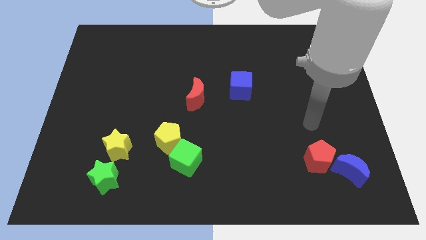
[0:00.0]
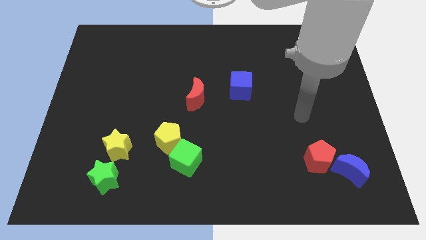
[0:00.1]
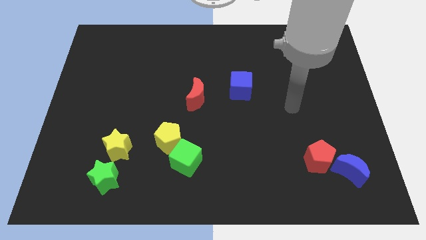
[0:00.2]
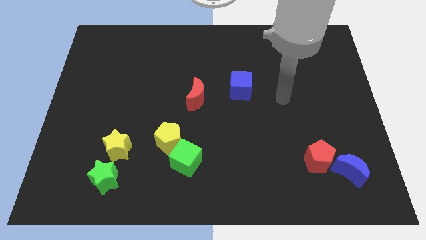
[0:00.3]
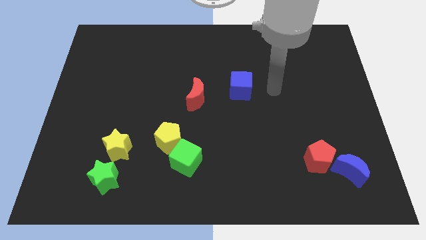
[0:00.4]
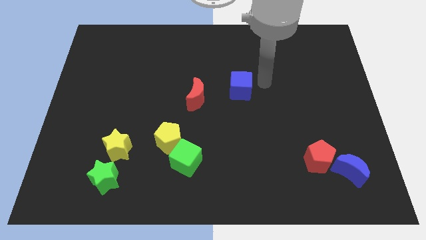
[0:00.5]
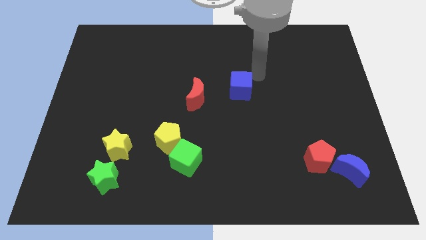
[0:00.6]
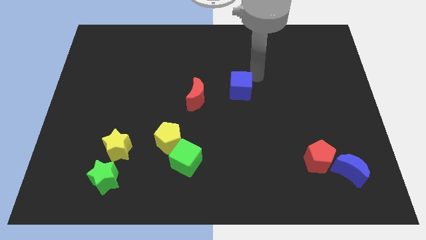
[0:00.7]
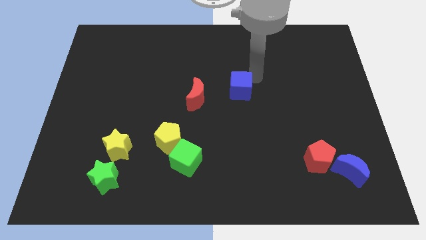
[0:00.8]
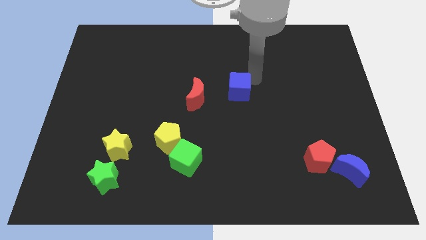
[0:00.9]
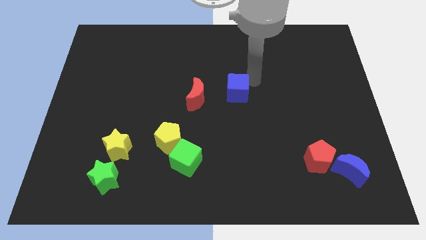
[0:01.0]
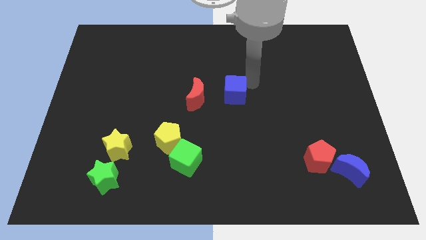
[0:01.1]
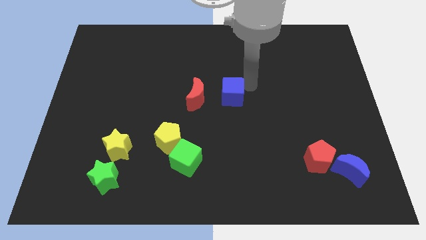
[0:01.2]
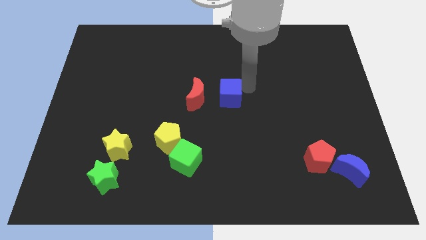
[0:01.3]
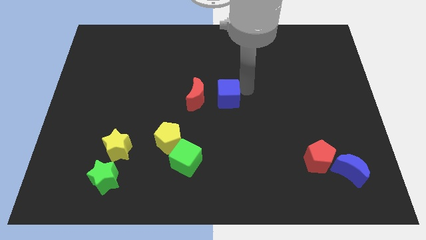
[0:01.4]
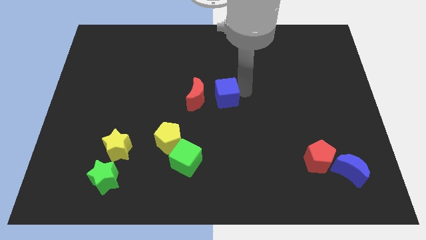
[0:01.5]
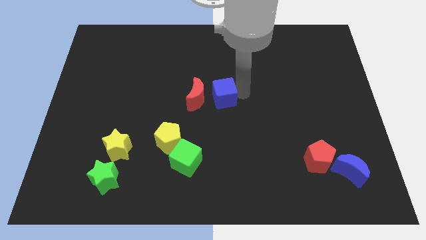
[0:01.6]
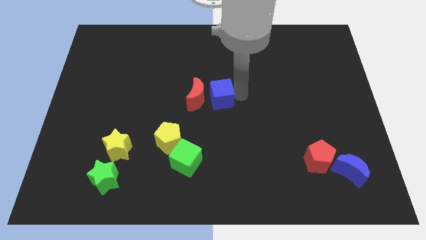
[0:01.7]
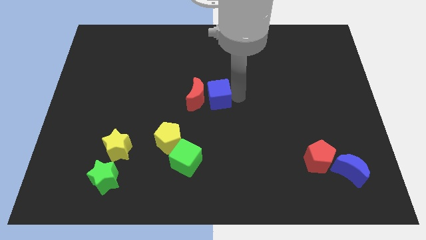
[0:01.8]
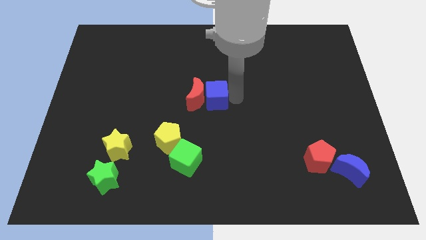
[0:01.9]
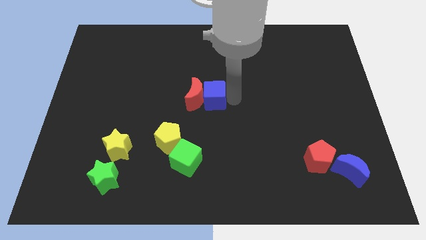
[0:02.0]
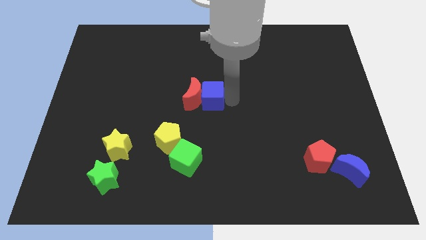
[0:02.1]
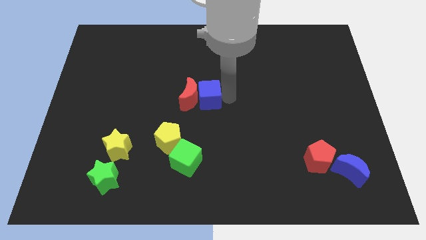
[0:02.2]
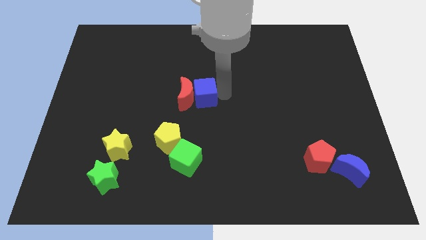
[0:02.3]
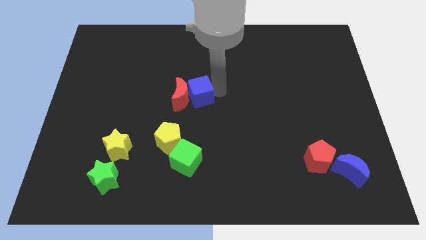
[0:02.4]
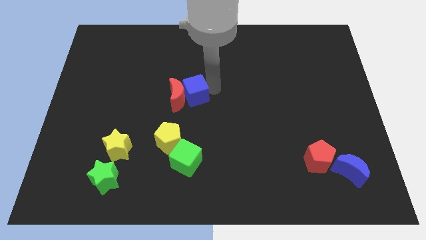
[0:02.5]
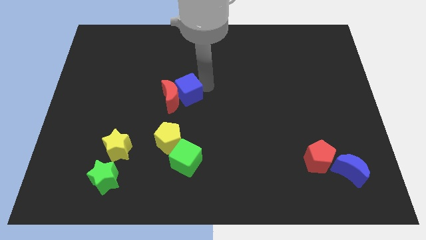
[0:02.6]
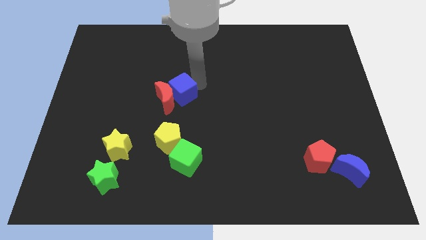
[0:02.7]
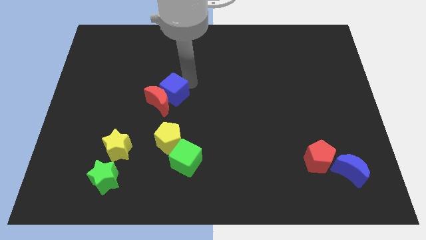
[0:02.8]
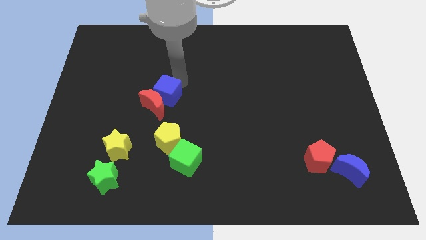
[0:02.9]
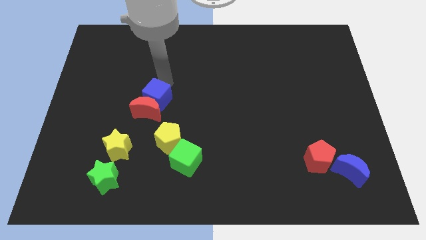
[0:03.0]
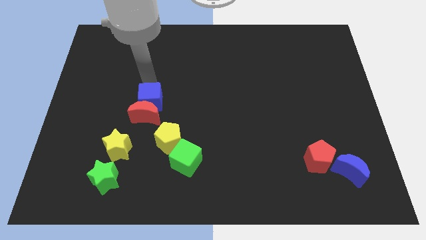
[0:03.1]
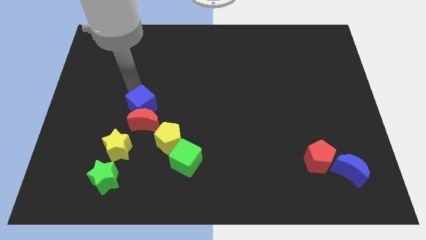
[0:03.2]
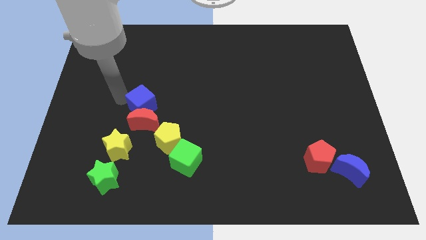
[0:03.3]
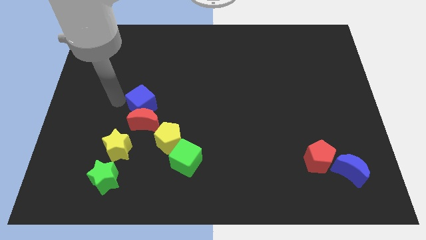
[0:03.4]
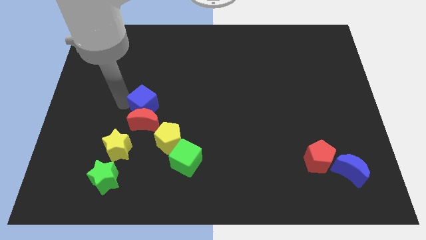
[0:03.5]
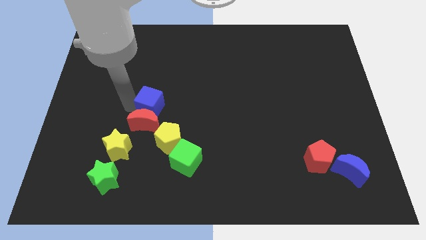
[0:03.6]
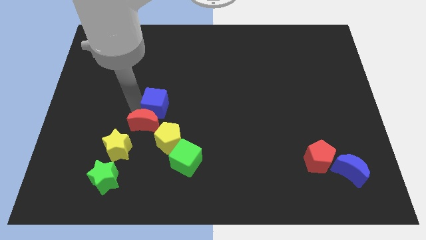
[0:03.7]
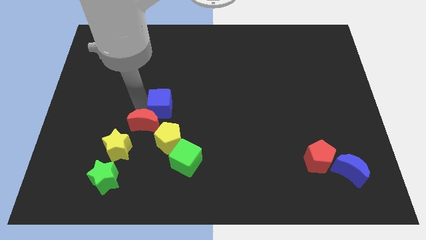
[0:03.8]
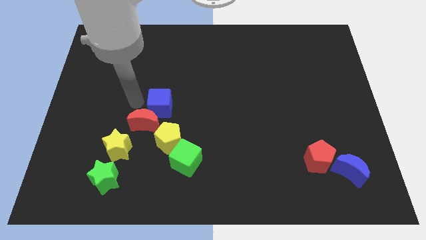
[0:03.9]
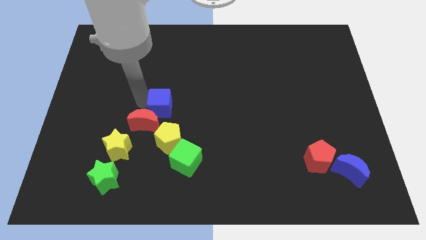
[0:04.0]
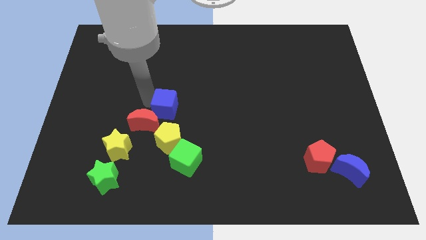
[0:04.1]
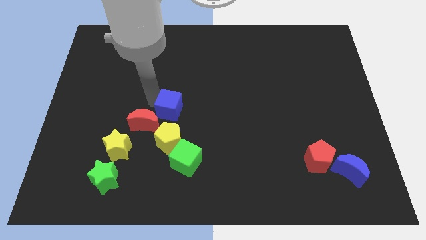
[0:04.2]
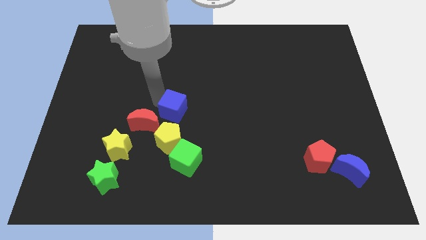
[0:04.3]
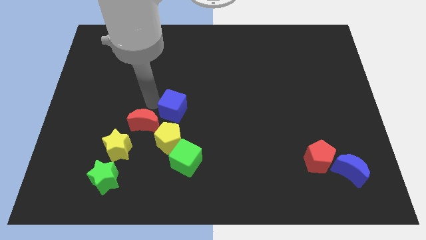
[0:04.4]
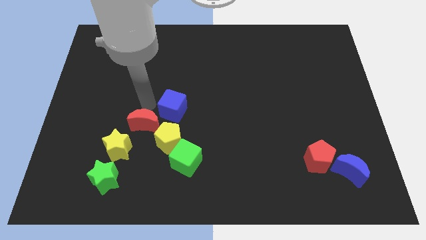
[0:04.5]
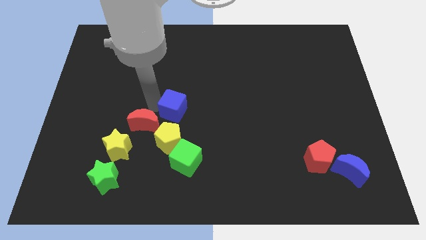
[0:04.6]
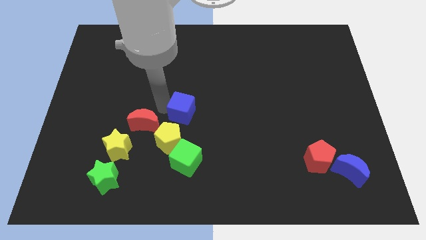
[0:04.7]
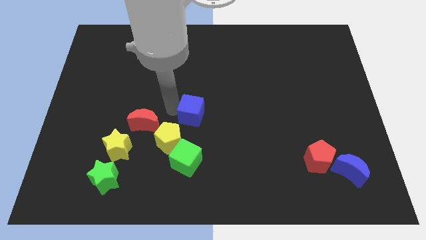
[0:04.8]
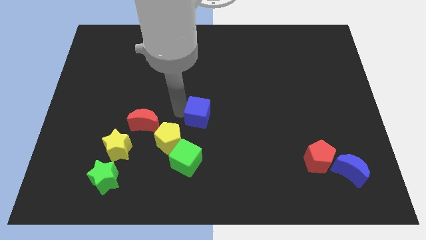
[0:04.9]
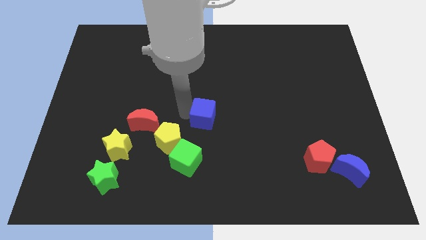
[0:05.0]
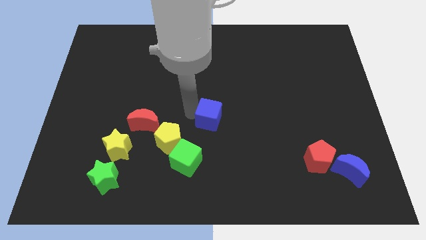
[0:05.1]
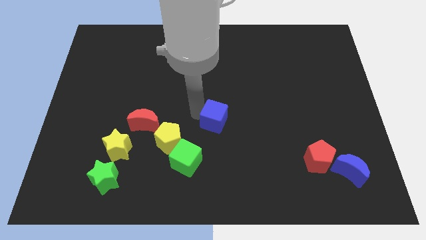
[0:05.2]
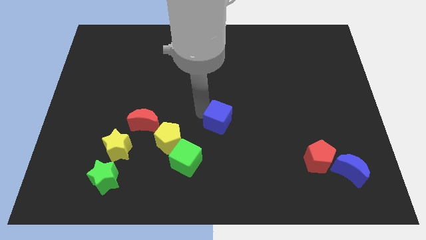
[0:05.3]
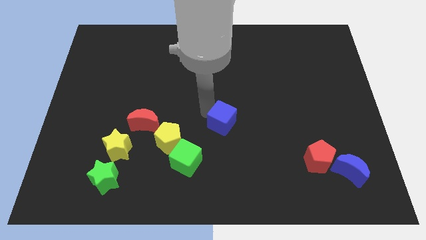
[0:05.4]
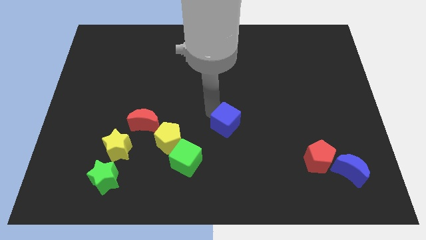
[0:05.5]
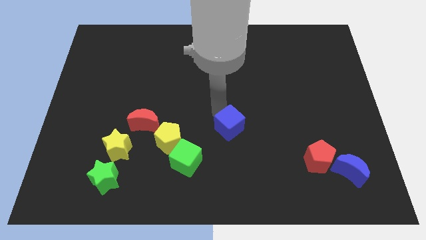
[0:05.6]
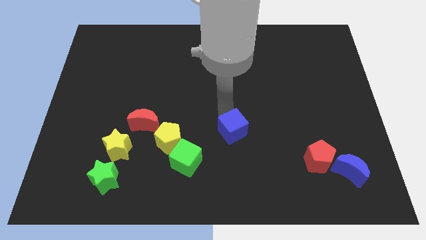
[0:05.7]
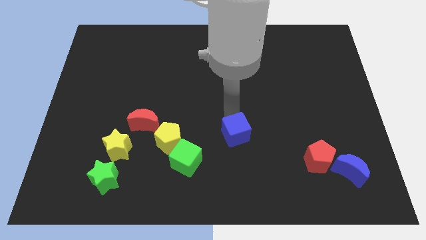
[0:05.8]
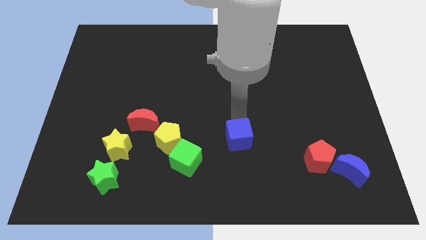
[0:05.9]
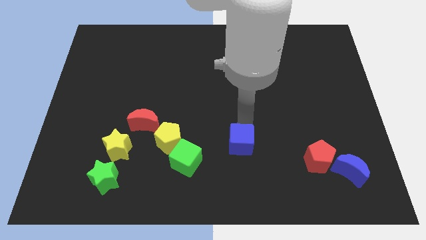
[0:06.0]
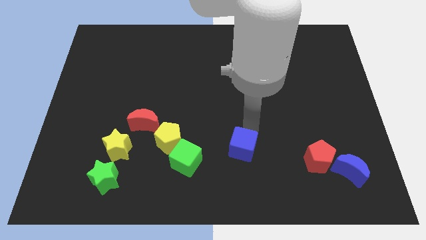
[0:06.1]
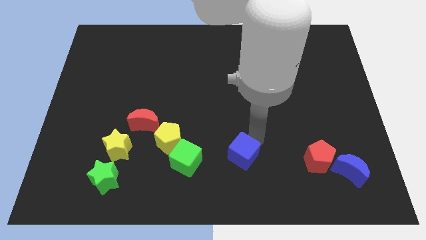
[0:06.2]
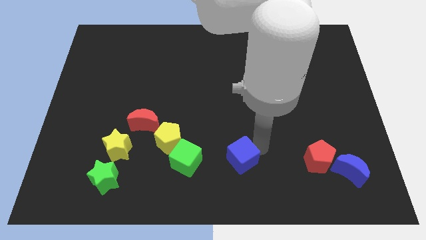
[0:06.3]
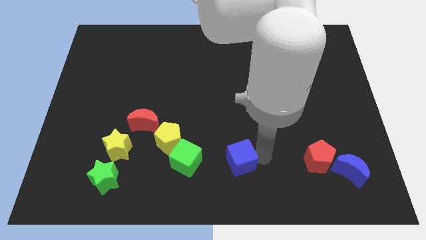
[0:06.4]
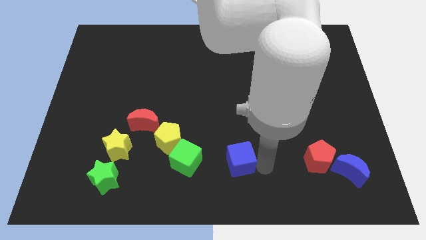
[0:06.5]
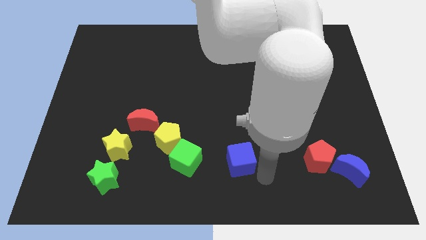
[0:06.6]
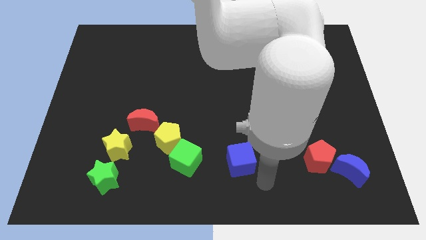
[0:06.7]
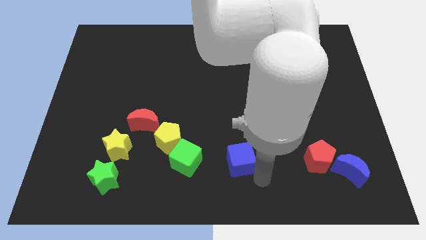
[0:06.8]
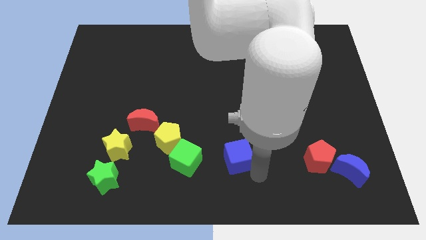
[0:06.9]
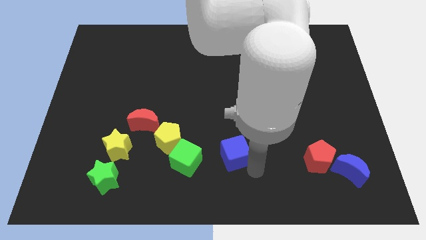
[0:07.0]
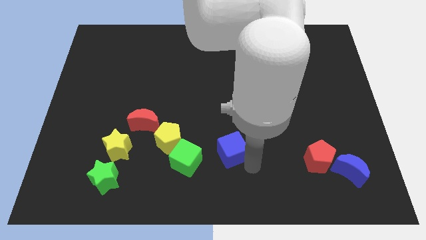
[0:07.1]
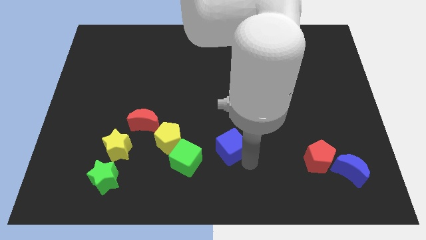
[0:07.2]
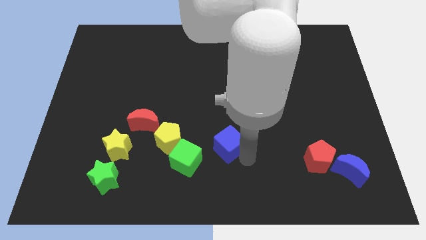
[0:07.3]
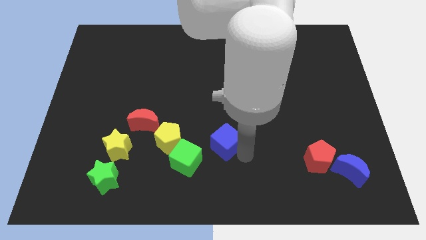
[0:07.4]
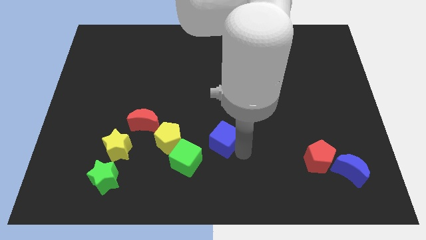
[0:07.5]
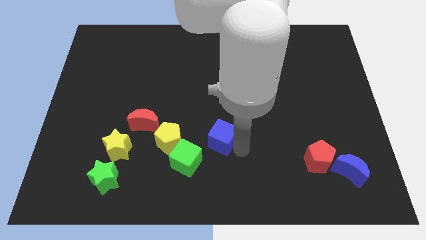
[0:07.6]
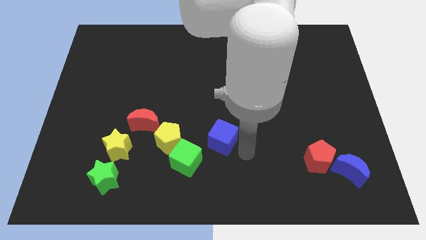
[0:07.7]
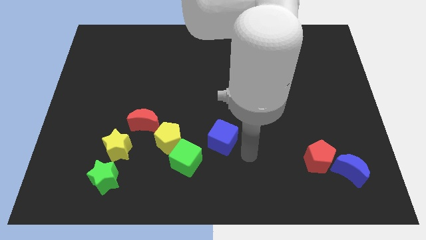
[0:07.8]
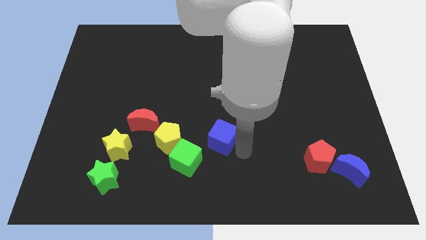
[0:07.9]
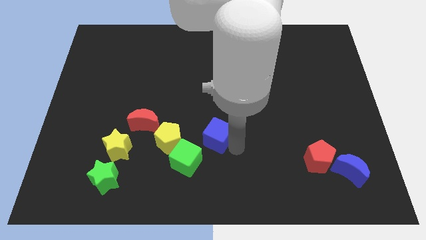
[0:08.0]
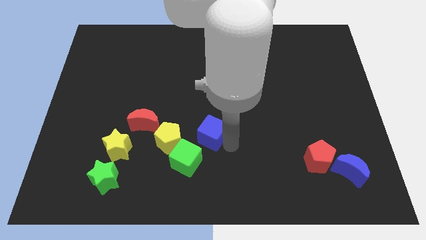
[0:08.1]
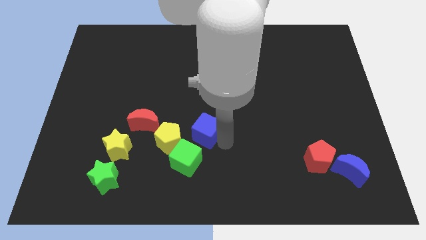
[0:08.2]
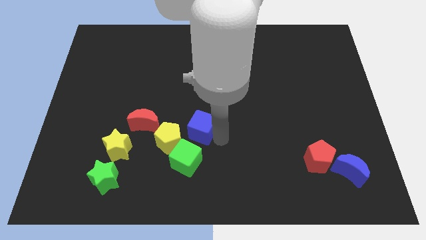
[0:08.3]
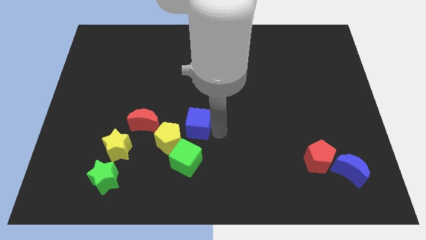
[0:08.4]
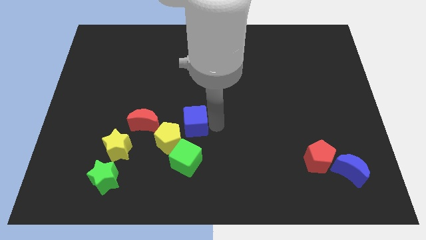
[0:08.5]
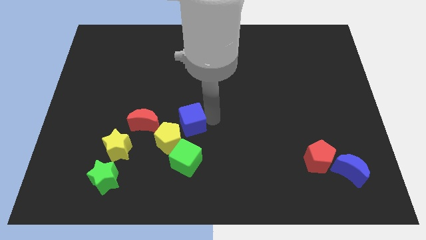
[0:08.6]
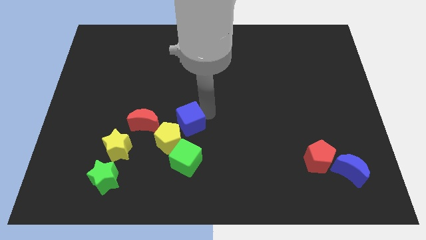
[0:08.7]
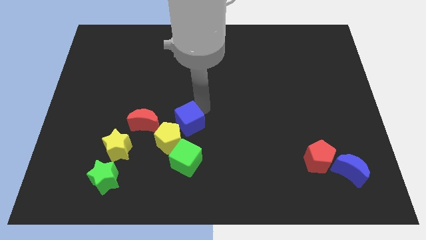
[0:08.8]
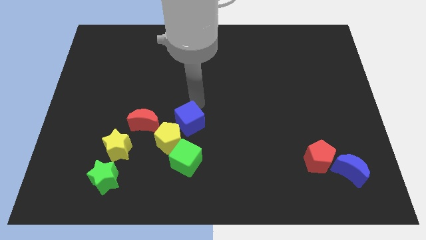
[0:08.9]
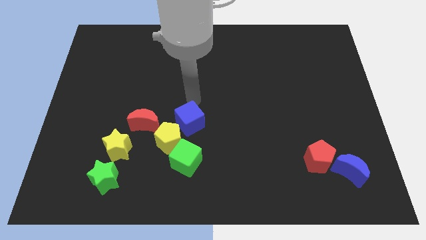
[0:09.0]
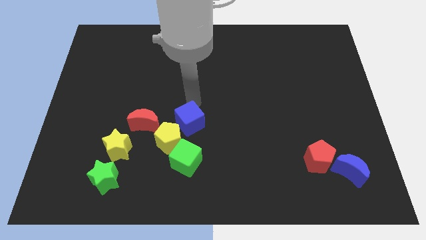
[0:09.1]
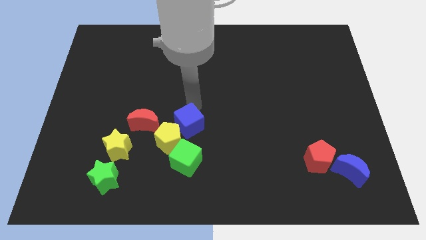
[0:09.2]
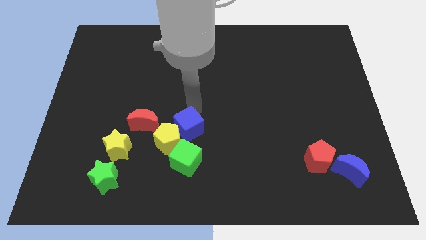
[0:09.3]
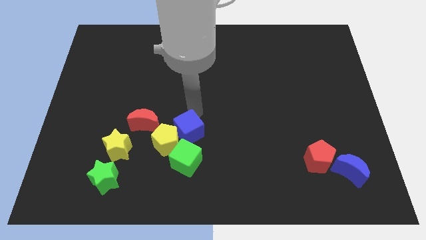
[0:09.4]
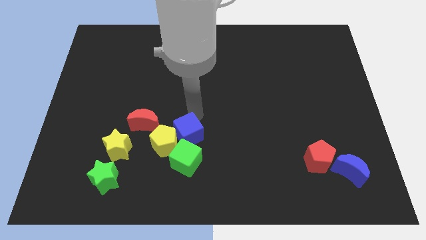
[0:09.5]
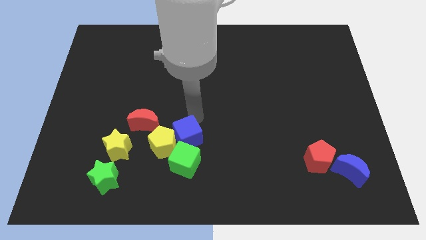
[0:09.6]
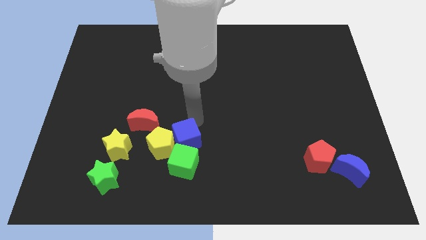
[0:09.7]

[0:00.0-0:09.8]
slide the blue cube close to the green cube
